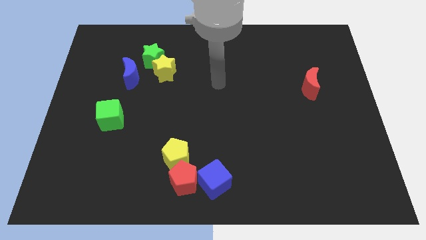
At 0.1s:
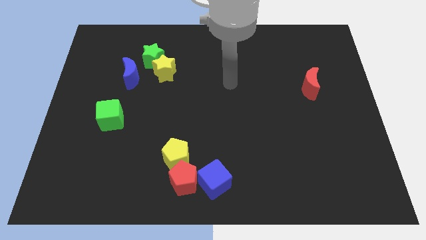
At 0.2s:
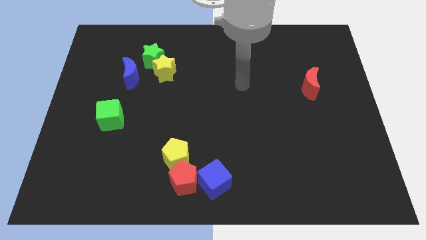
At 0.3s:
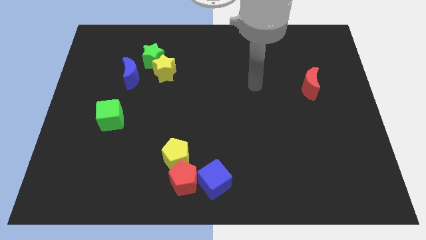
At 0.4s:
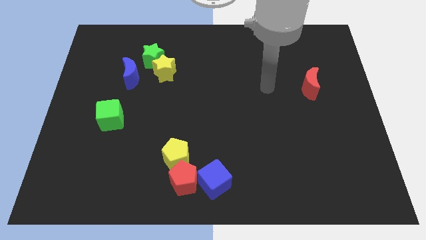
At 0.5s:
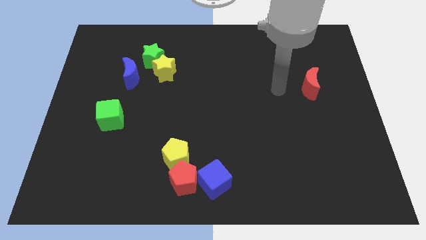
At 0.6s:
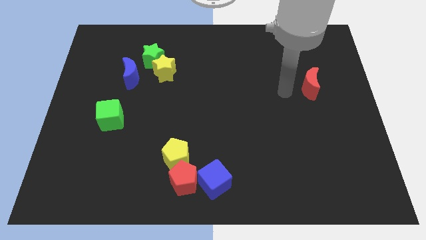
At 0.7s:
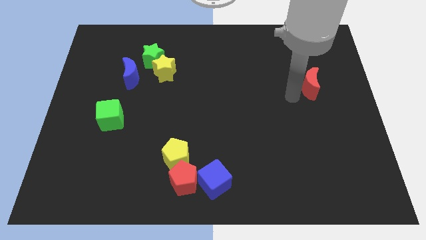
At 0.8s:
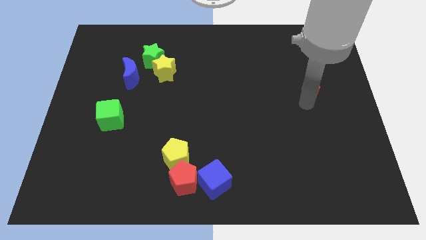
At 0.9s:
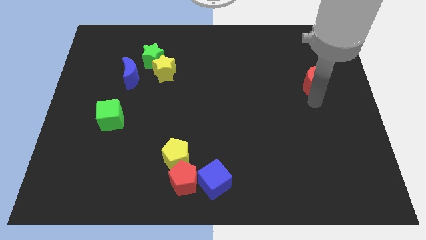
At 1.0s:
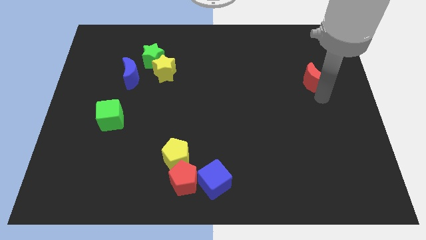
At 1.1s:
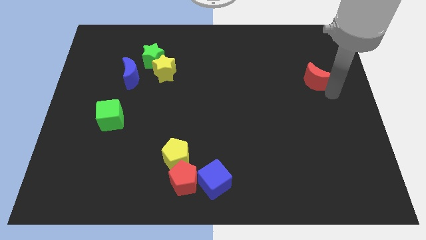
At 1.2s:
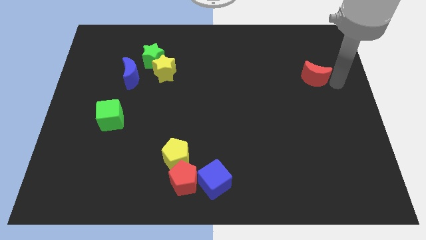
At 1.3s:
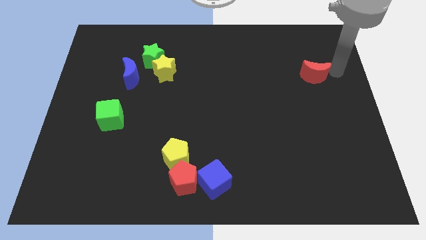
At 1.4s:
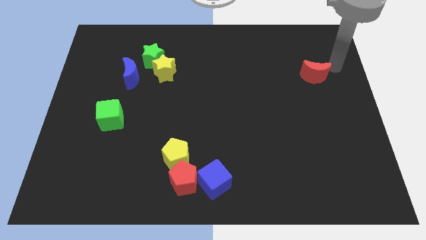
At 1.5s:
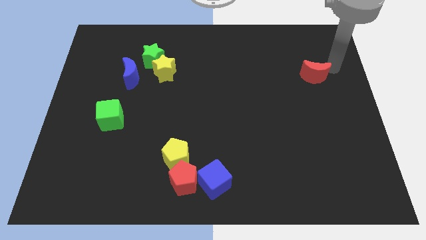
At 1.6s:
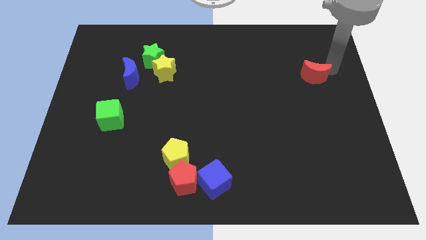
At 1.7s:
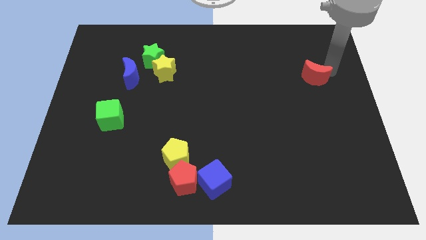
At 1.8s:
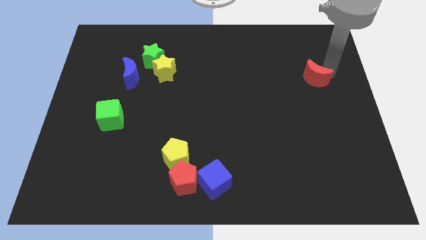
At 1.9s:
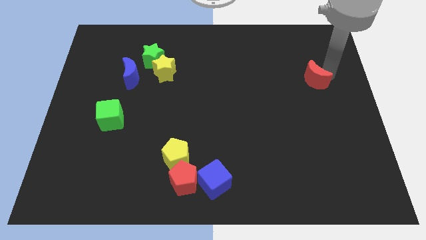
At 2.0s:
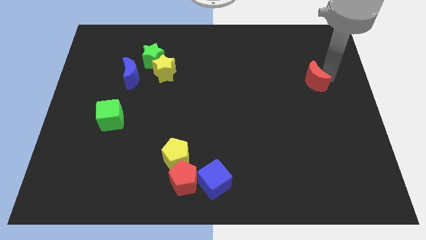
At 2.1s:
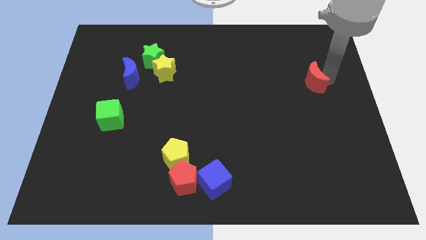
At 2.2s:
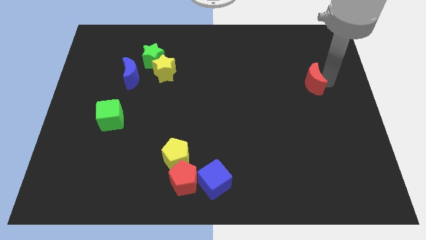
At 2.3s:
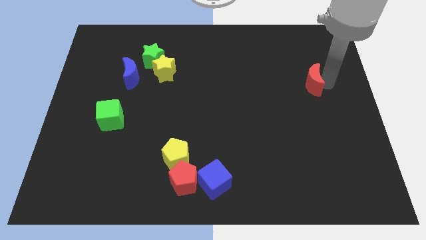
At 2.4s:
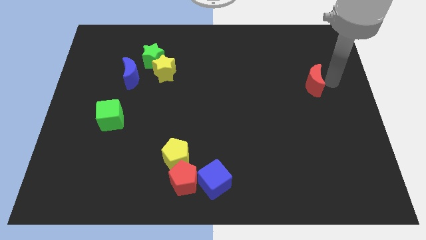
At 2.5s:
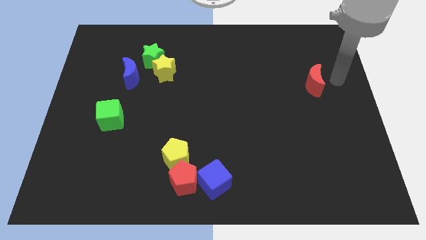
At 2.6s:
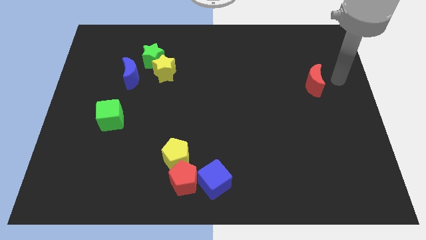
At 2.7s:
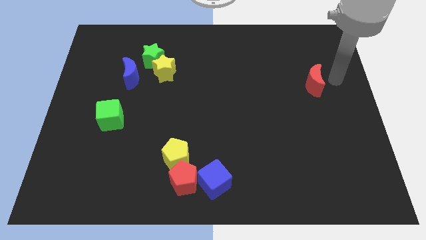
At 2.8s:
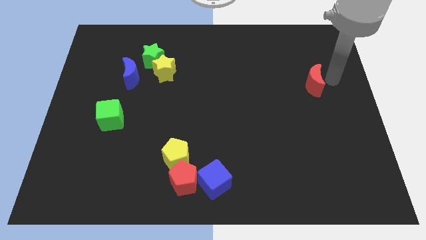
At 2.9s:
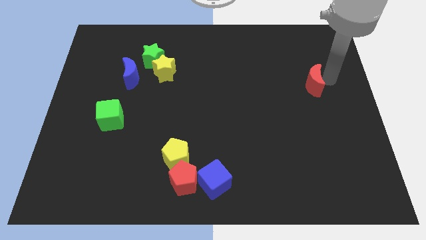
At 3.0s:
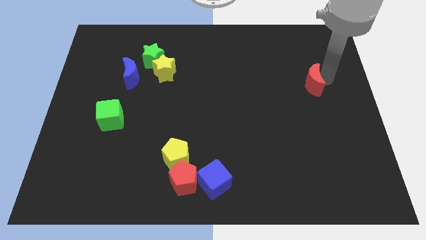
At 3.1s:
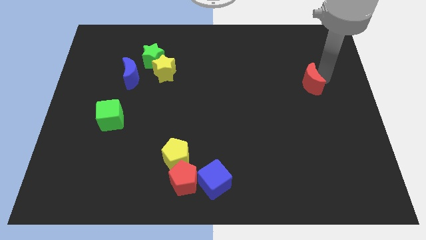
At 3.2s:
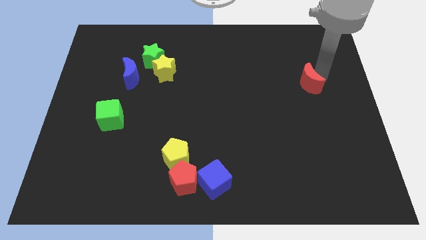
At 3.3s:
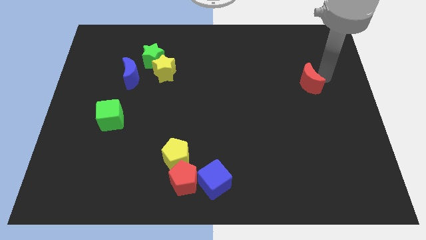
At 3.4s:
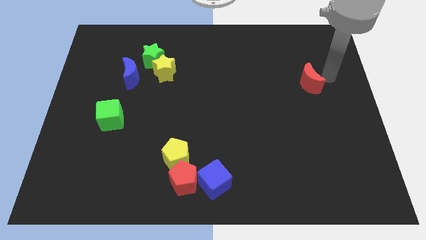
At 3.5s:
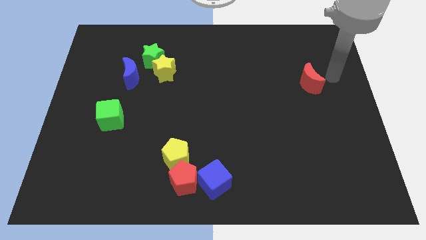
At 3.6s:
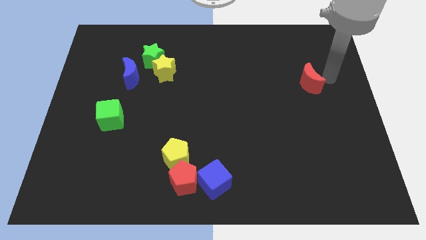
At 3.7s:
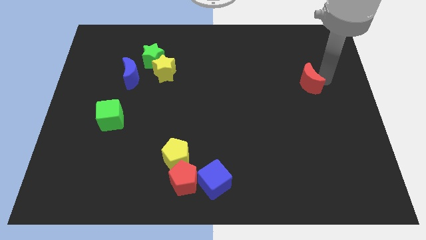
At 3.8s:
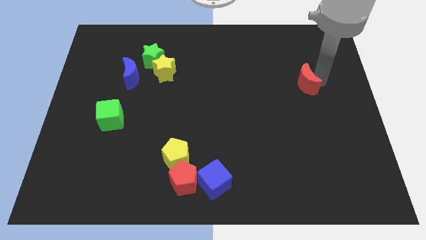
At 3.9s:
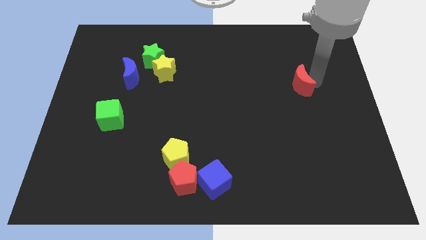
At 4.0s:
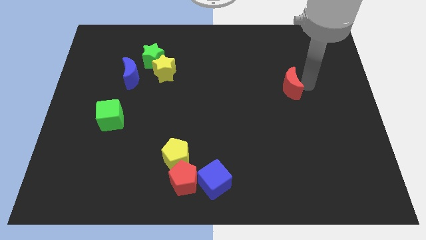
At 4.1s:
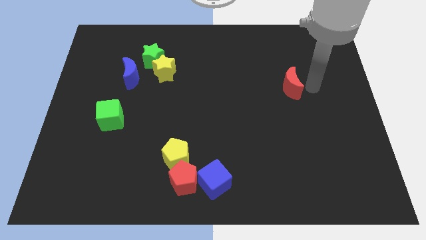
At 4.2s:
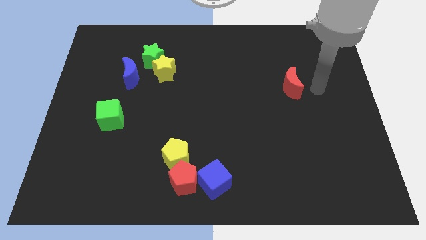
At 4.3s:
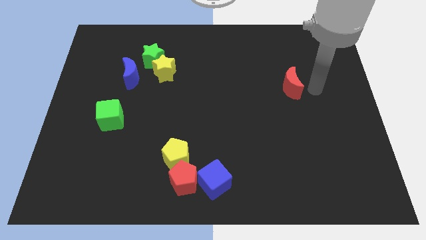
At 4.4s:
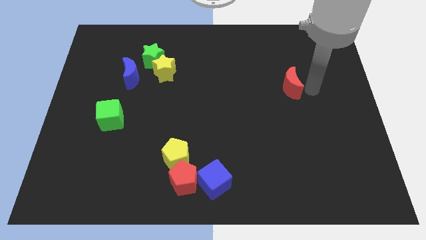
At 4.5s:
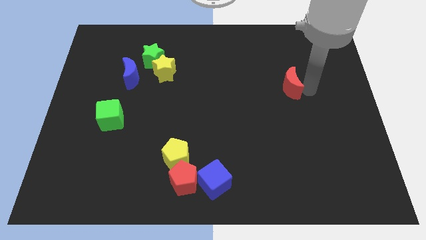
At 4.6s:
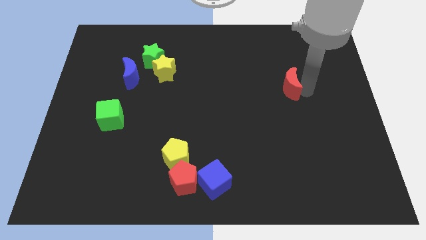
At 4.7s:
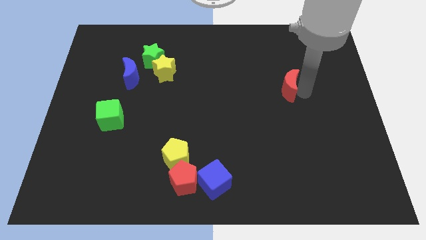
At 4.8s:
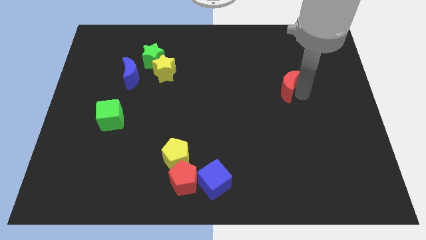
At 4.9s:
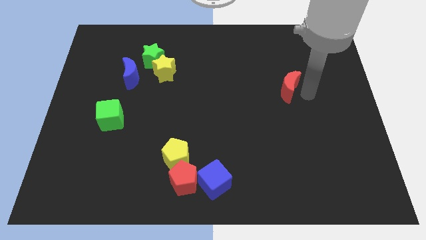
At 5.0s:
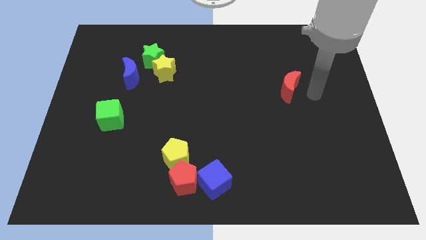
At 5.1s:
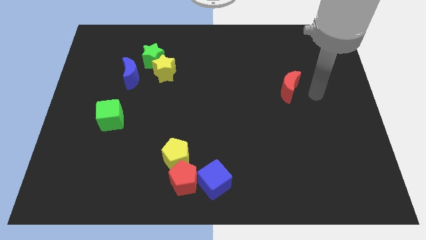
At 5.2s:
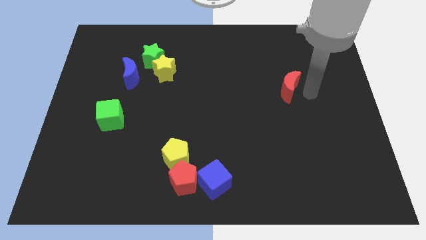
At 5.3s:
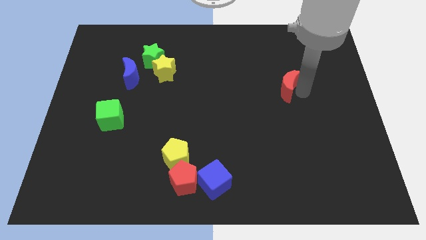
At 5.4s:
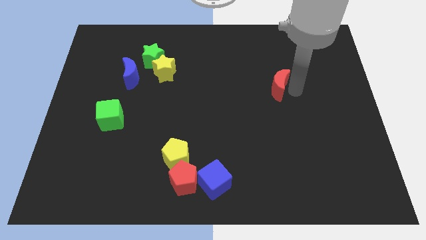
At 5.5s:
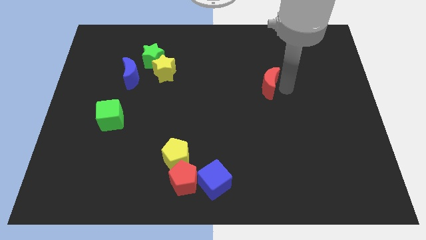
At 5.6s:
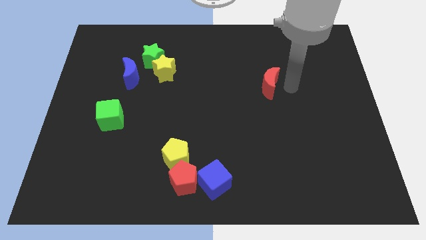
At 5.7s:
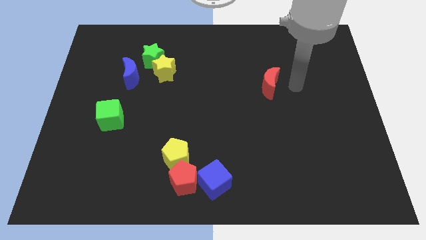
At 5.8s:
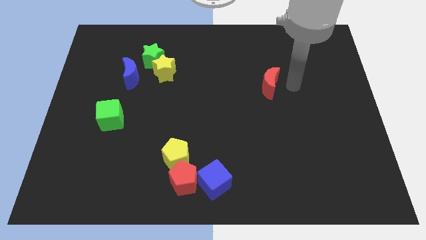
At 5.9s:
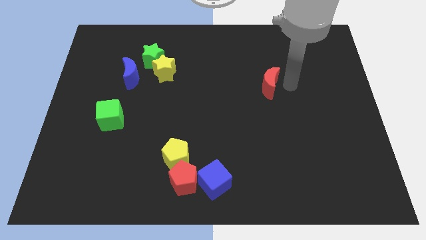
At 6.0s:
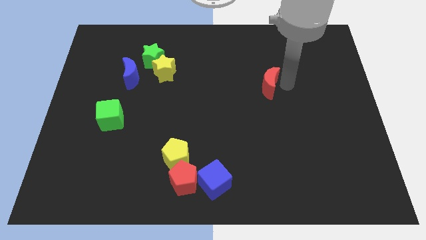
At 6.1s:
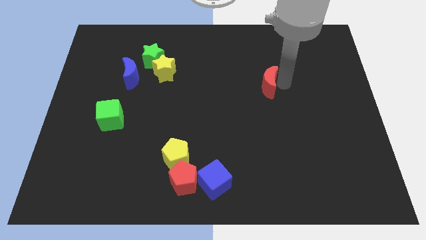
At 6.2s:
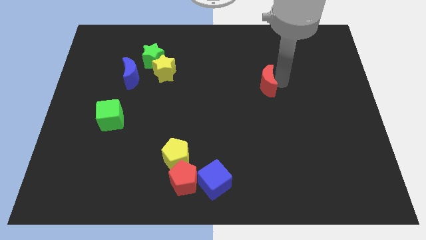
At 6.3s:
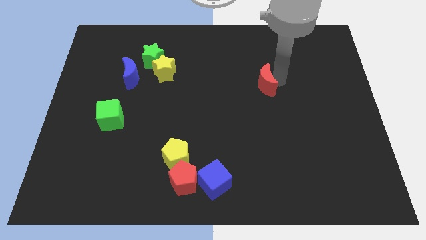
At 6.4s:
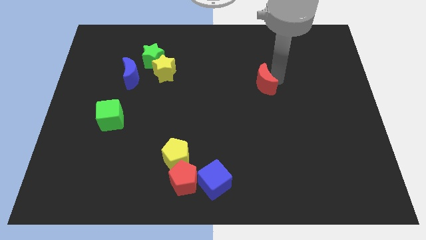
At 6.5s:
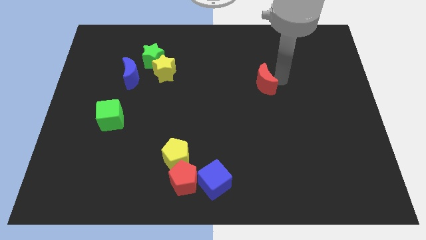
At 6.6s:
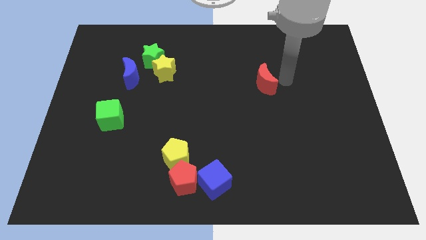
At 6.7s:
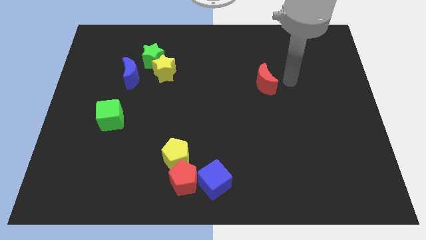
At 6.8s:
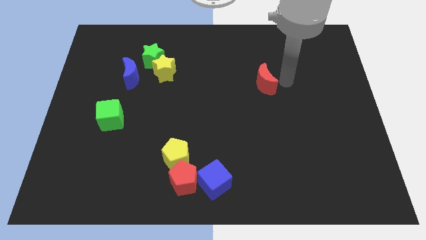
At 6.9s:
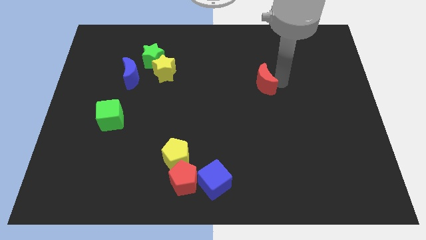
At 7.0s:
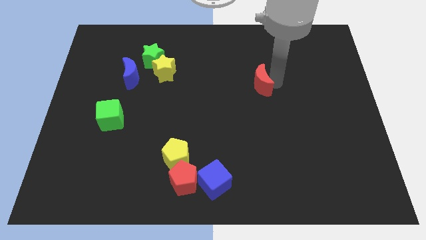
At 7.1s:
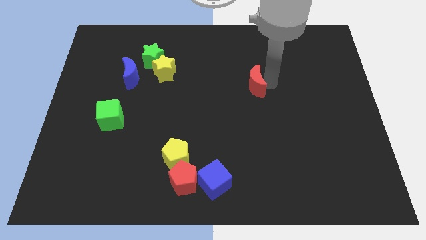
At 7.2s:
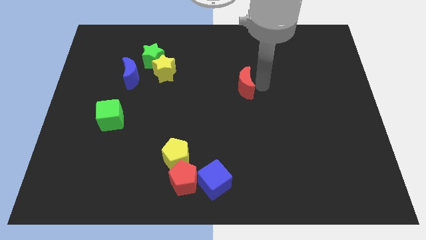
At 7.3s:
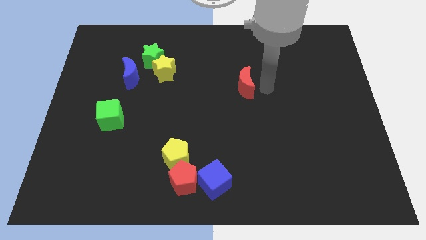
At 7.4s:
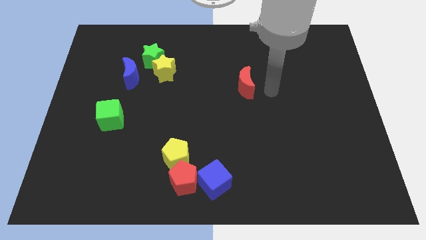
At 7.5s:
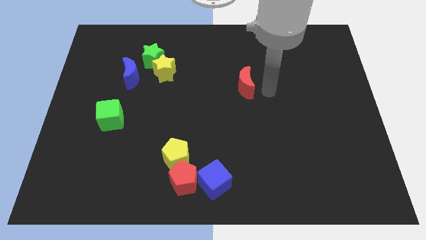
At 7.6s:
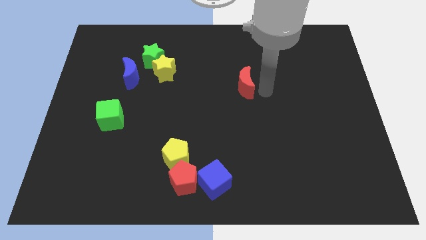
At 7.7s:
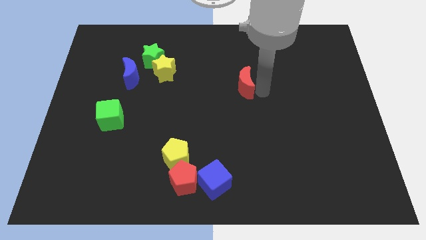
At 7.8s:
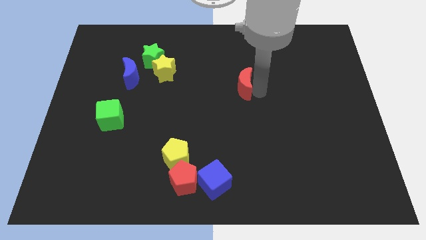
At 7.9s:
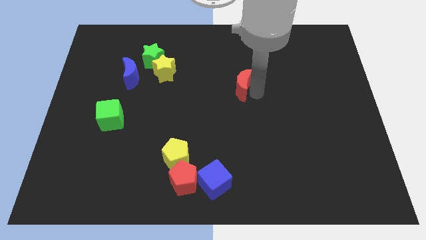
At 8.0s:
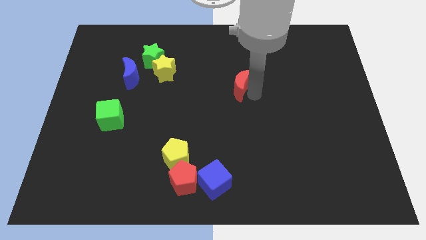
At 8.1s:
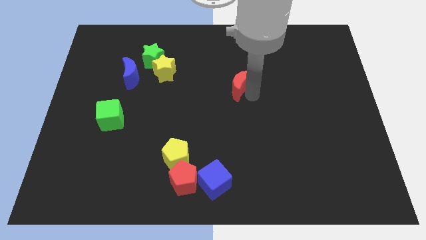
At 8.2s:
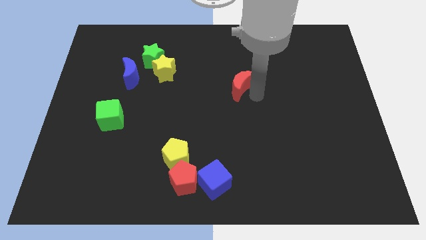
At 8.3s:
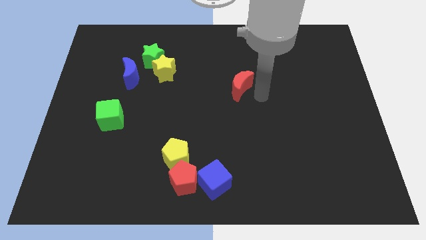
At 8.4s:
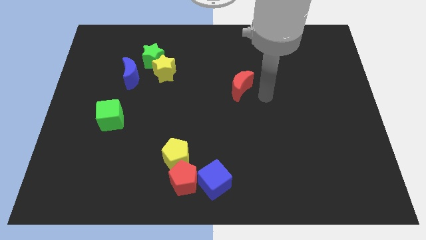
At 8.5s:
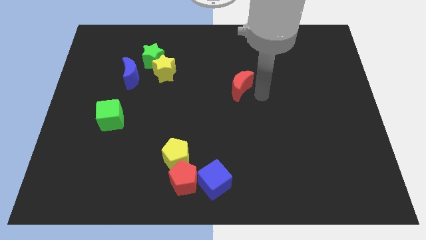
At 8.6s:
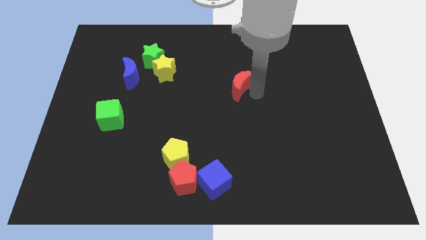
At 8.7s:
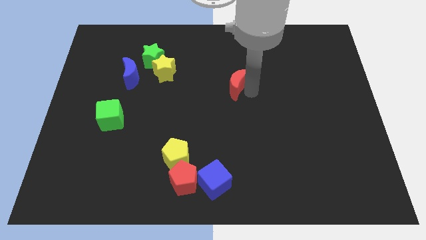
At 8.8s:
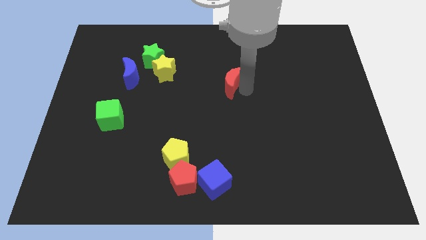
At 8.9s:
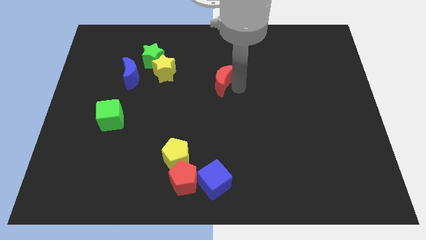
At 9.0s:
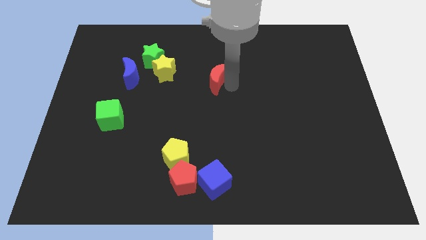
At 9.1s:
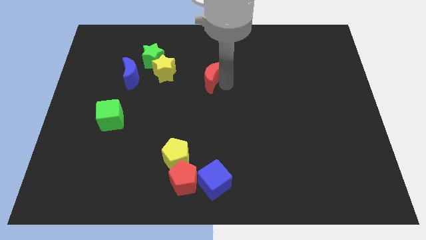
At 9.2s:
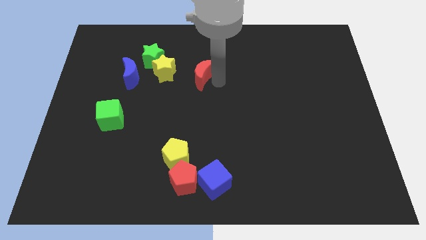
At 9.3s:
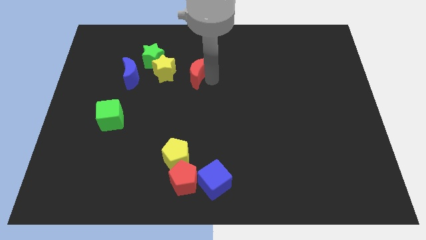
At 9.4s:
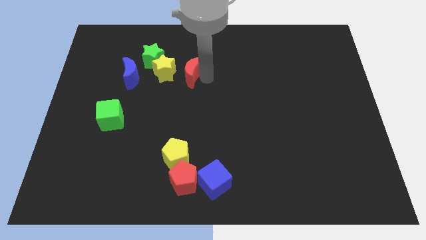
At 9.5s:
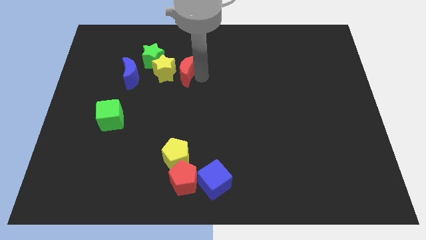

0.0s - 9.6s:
slide the red moon towards the yellow star
